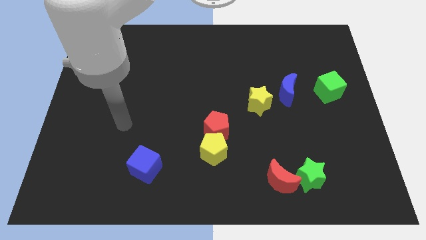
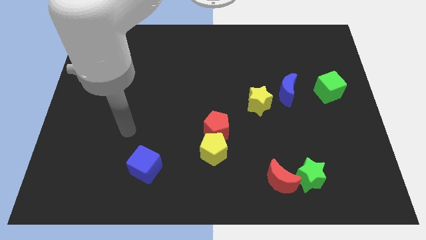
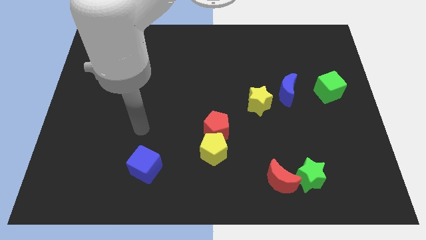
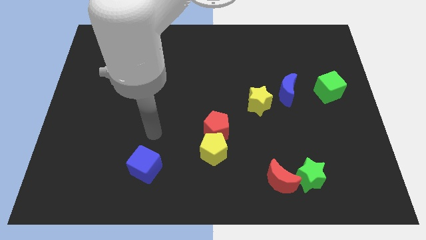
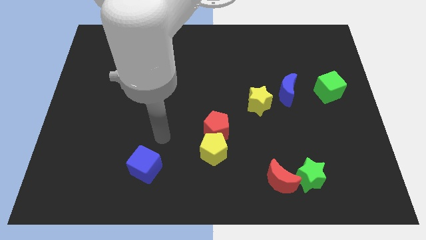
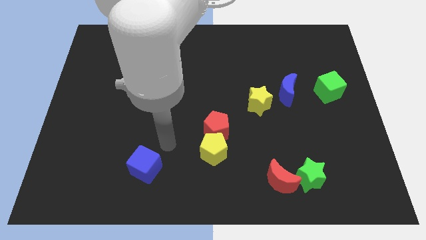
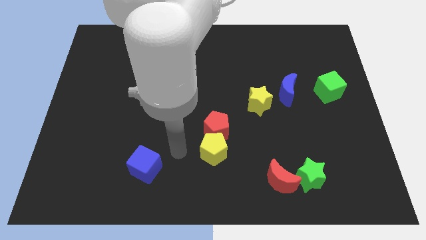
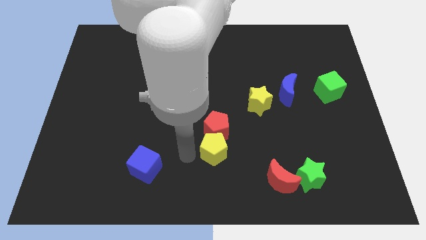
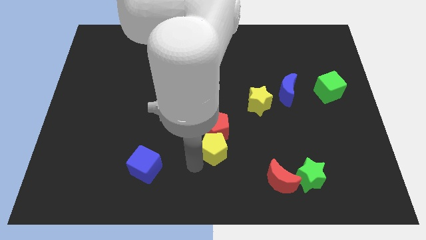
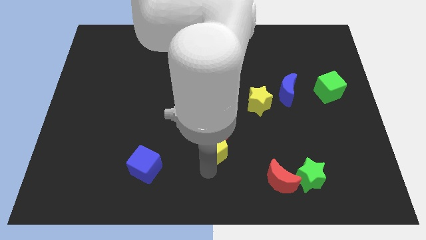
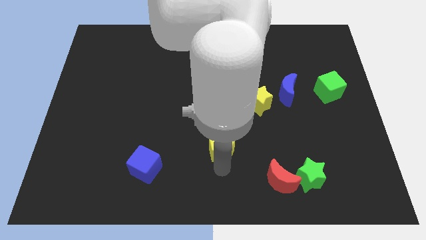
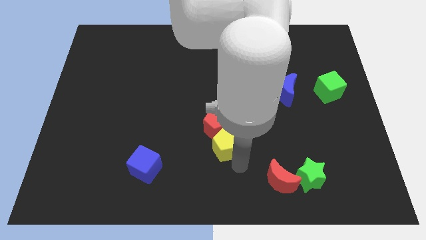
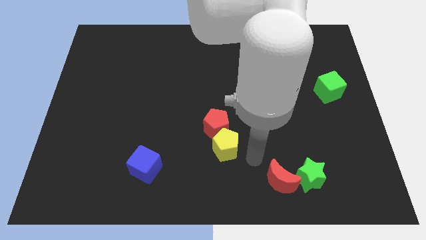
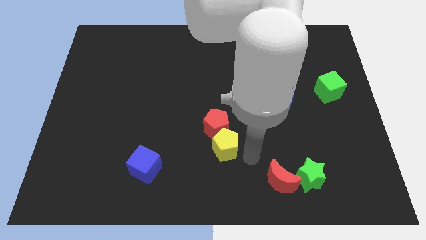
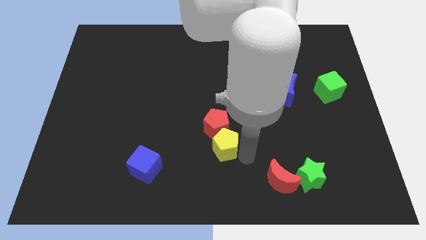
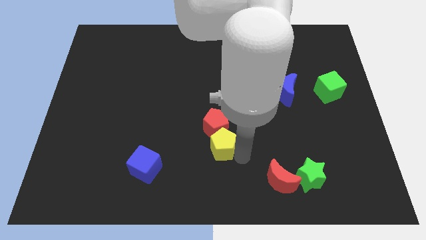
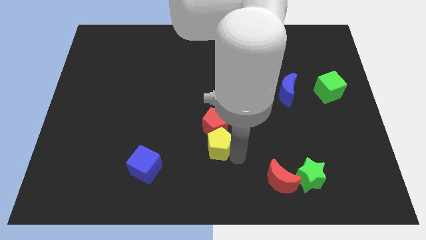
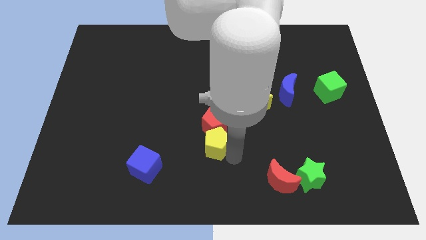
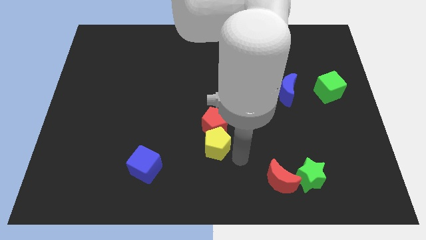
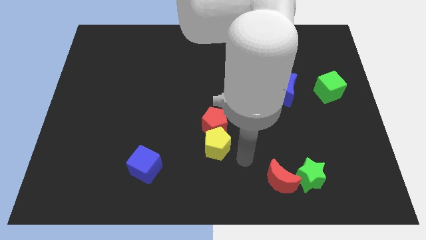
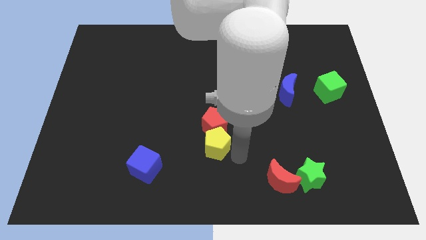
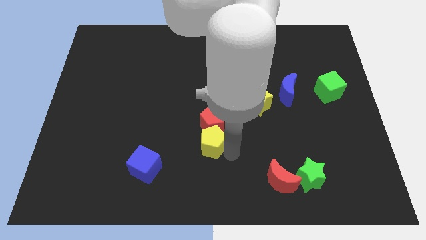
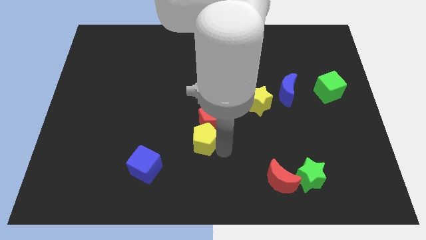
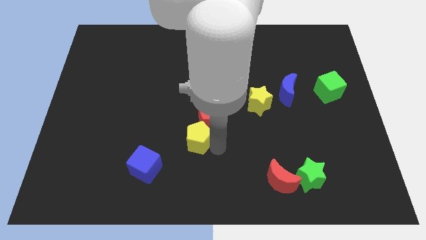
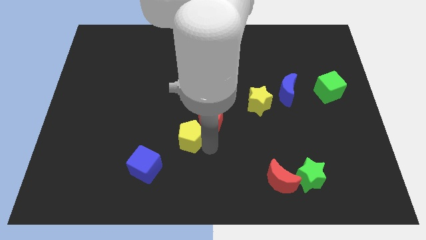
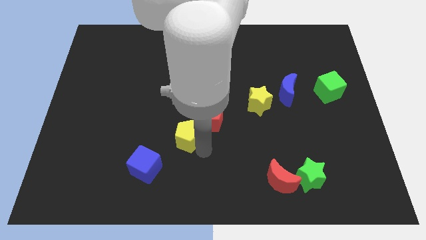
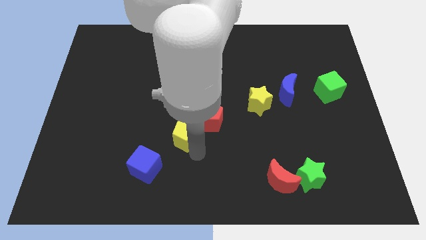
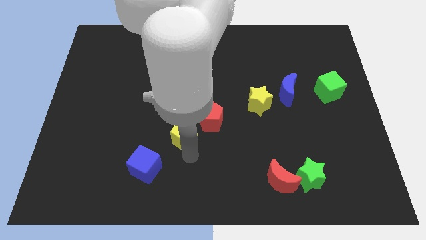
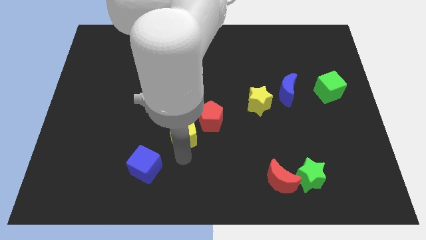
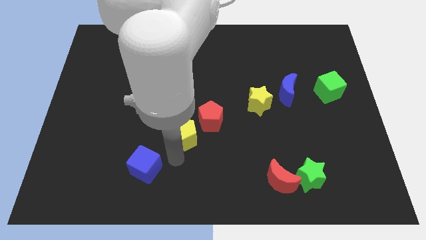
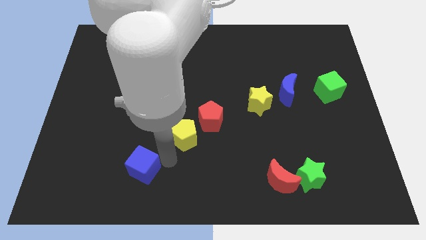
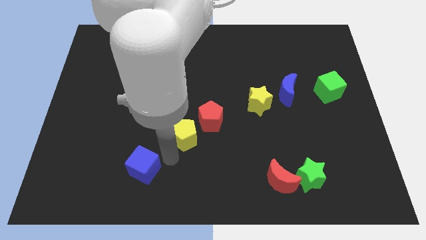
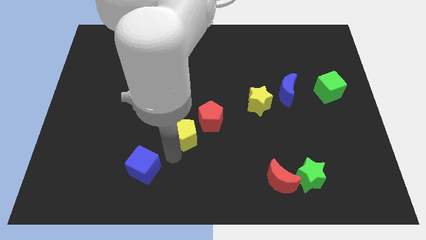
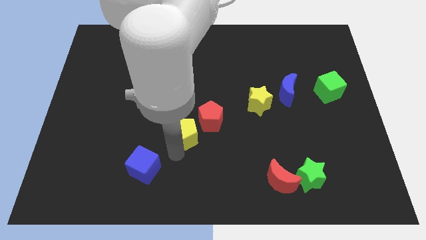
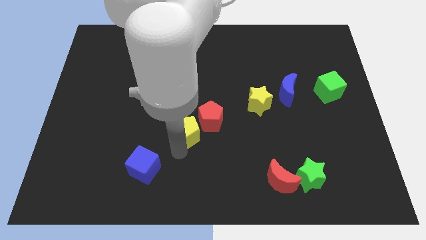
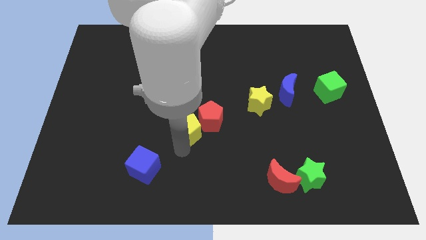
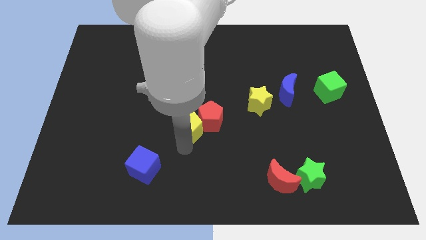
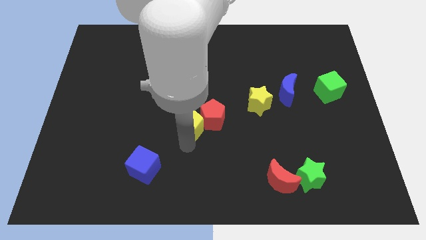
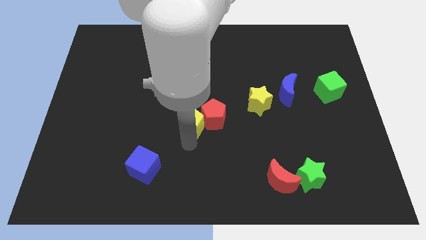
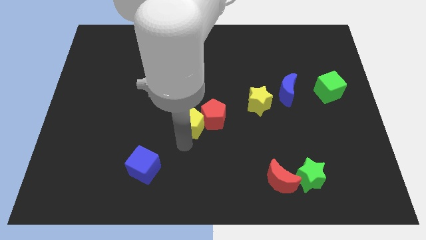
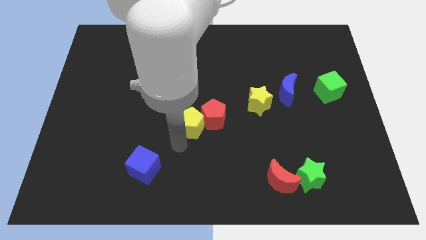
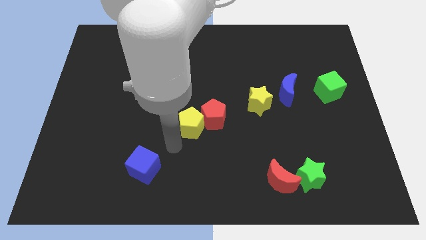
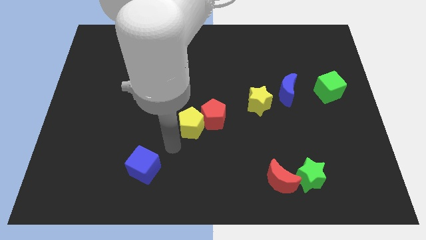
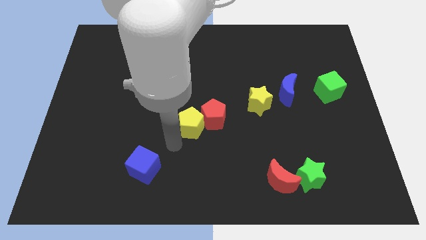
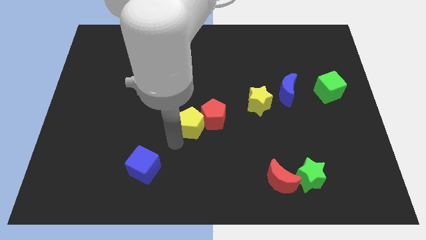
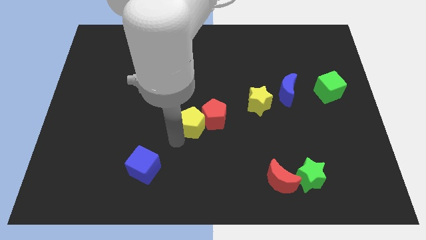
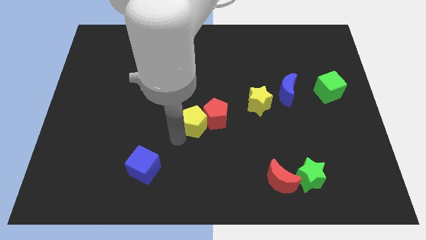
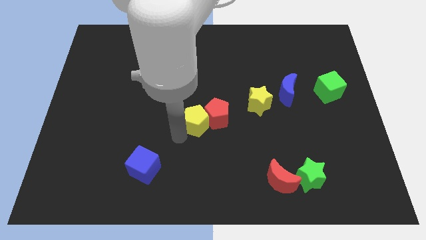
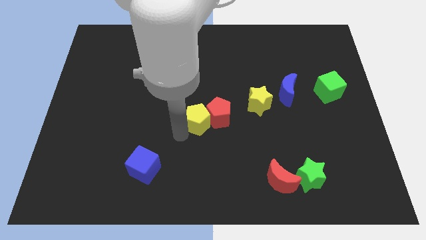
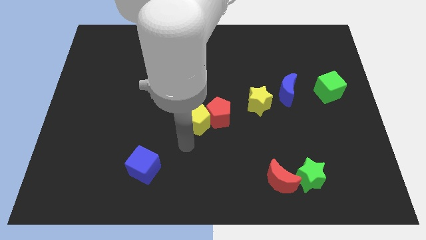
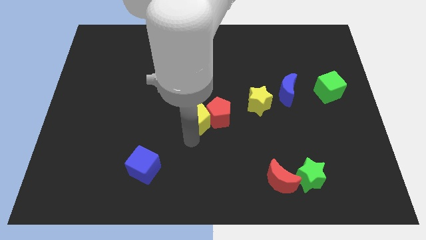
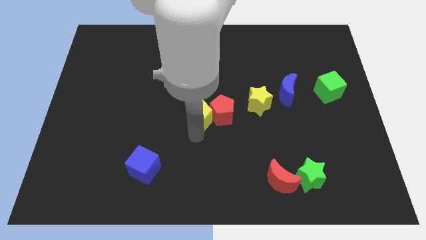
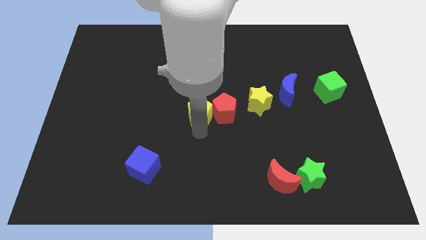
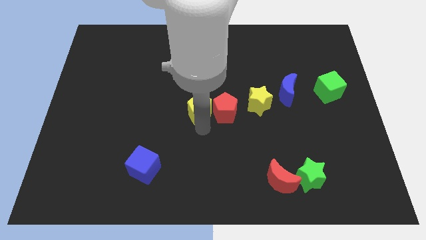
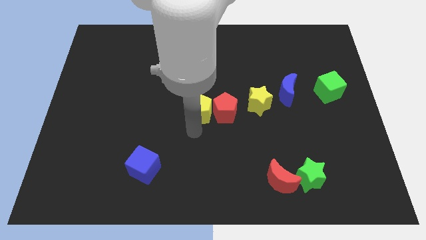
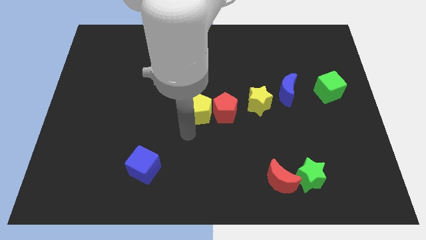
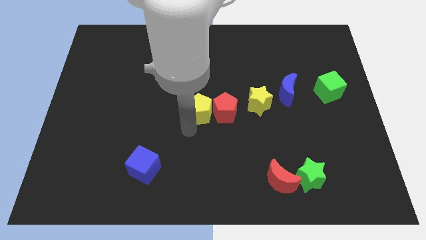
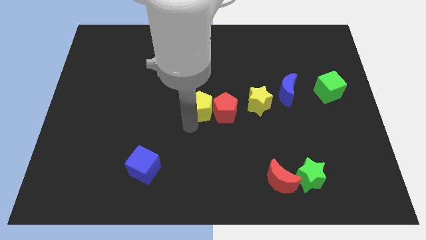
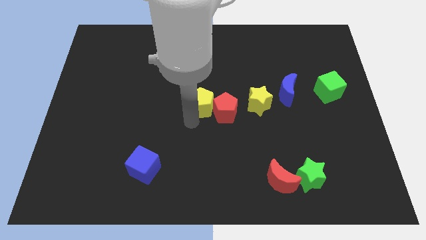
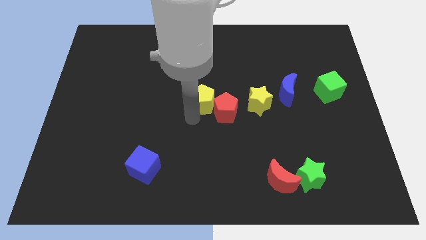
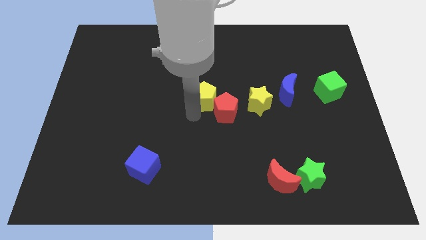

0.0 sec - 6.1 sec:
slide the yellow pentagon above the red pentagon

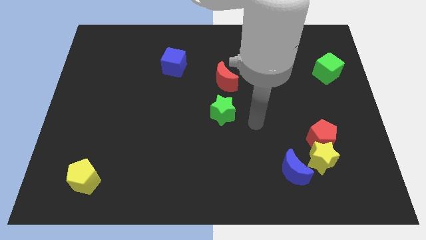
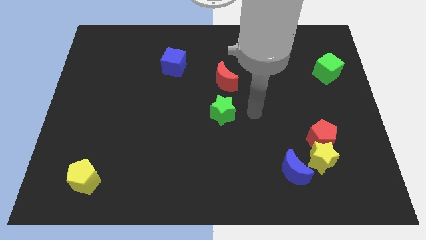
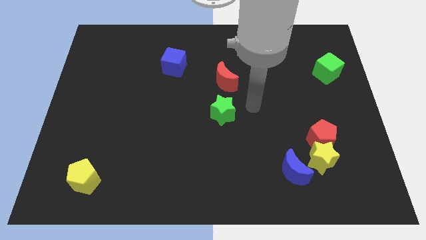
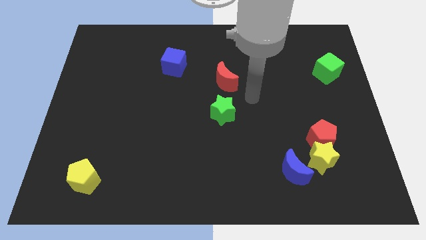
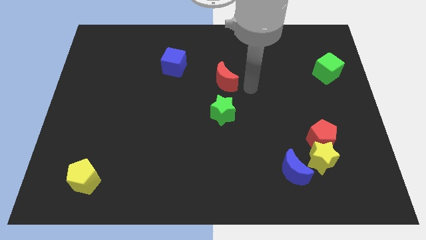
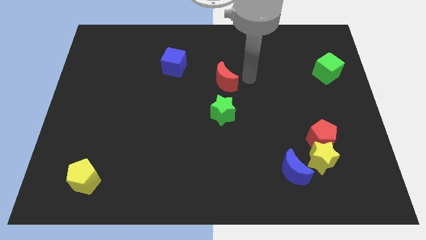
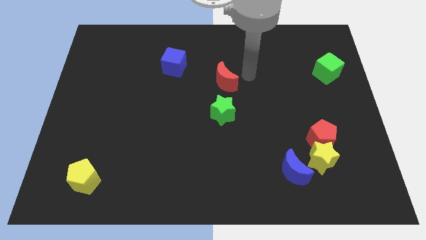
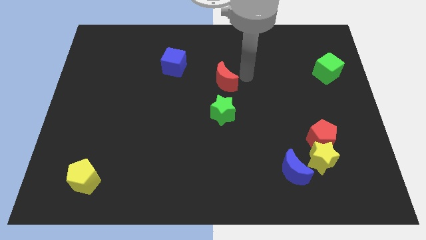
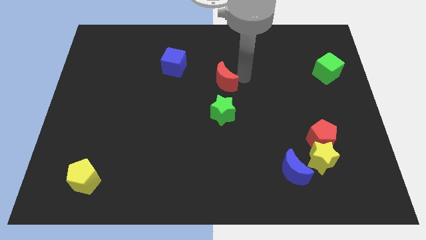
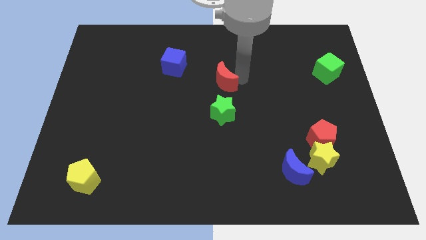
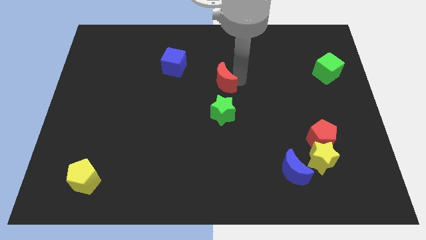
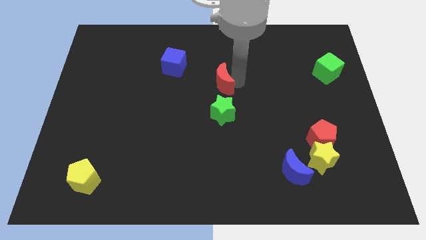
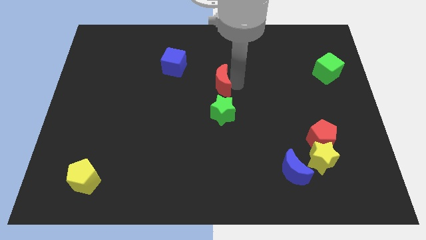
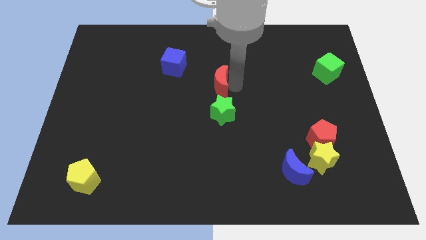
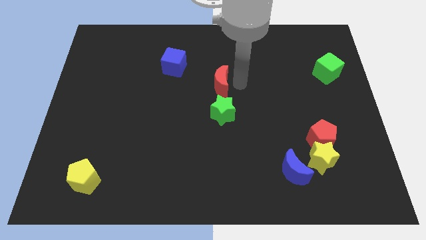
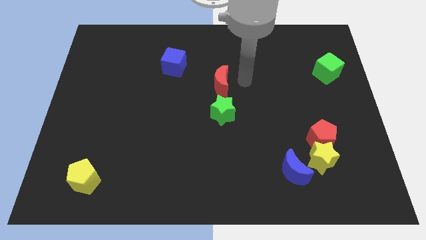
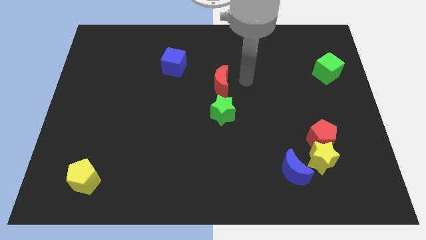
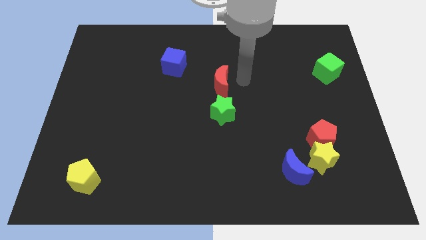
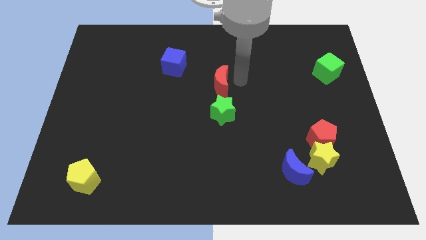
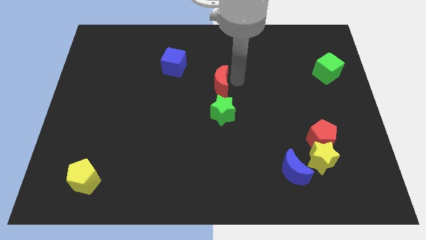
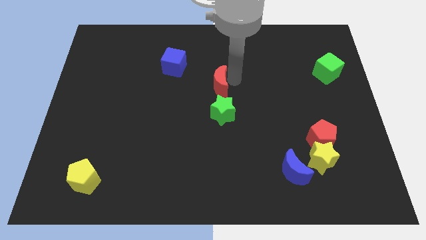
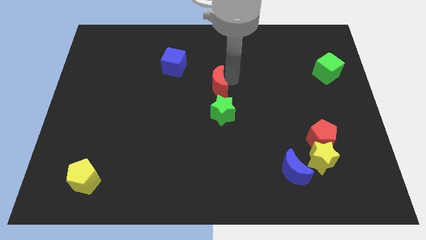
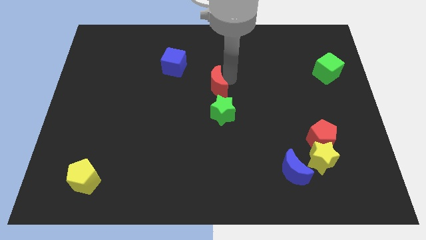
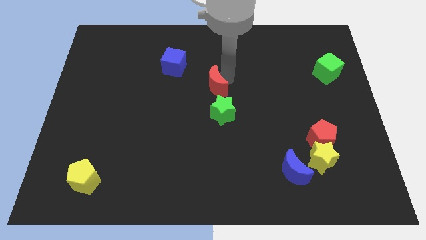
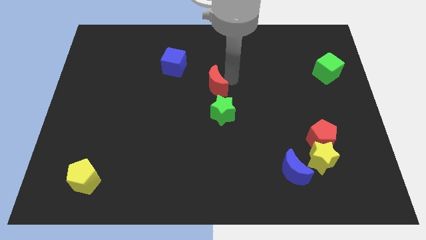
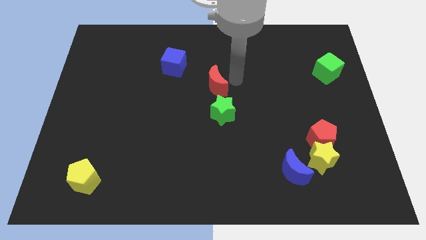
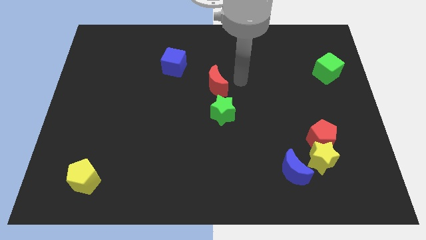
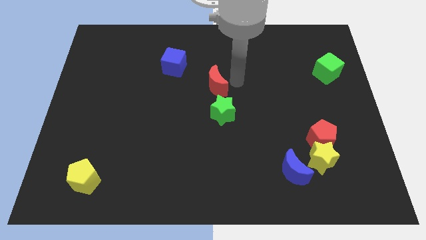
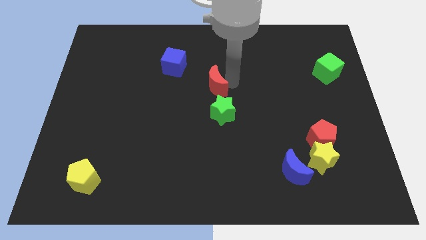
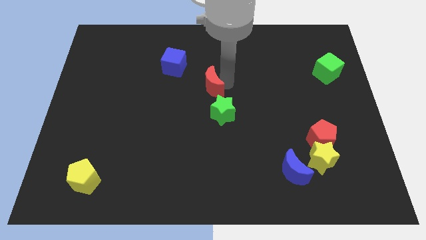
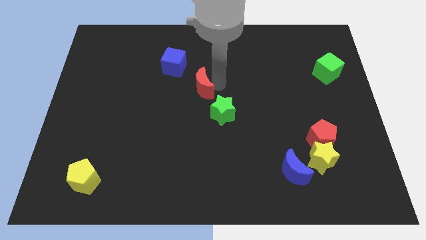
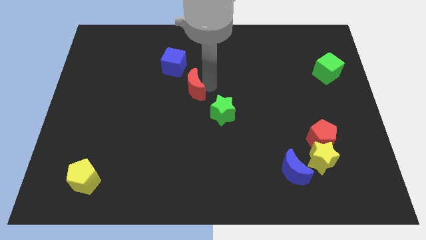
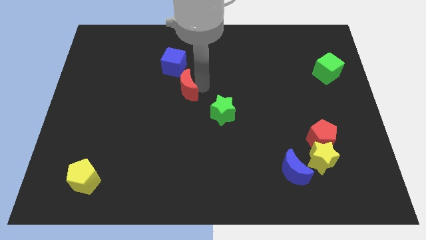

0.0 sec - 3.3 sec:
put the red moon below the blue cube
